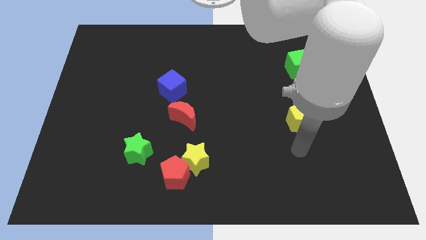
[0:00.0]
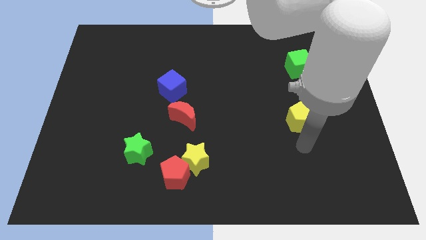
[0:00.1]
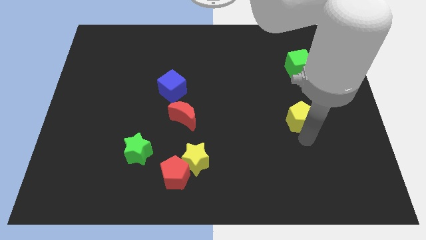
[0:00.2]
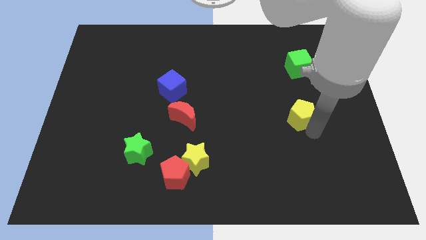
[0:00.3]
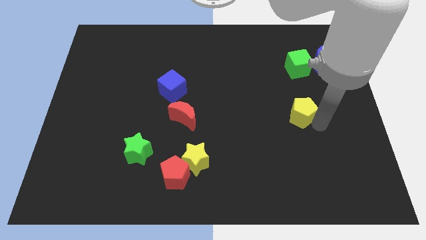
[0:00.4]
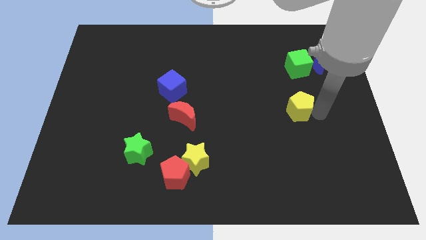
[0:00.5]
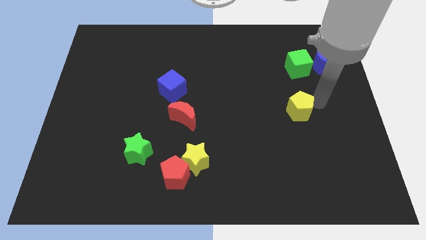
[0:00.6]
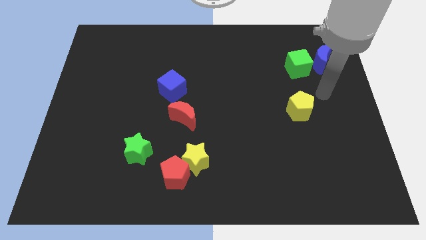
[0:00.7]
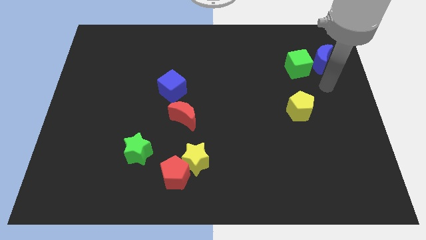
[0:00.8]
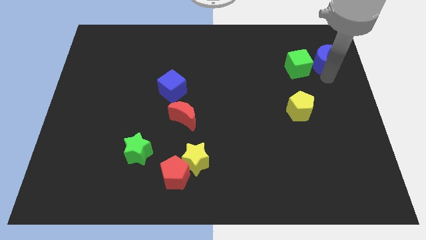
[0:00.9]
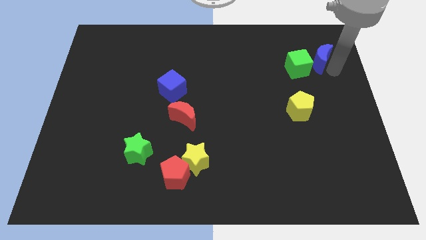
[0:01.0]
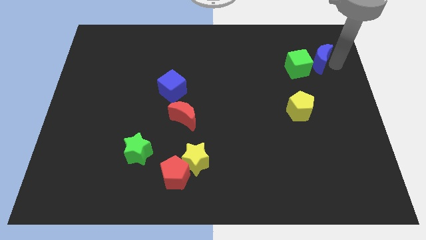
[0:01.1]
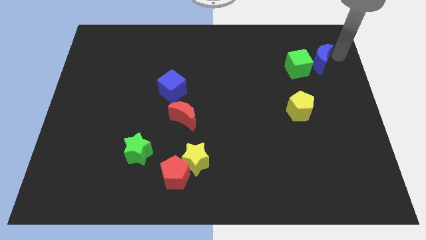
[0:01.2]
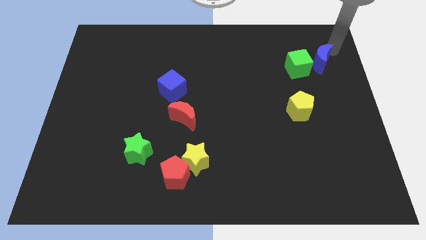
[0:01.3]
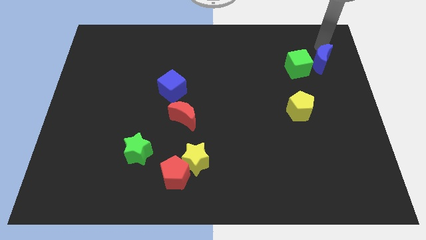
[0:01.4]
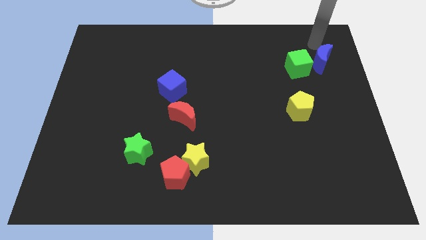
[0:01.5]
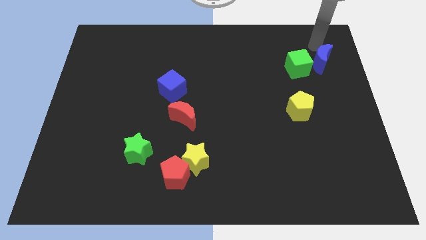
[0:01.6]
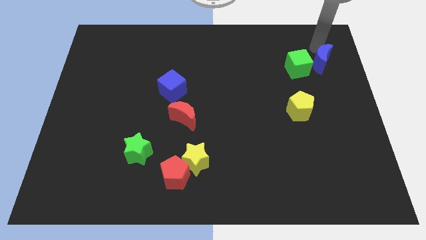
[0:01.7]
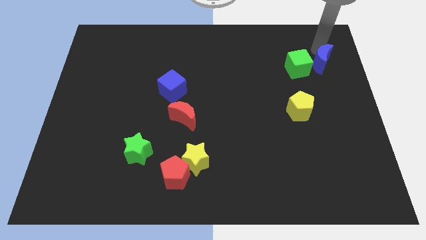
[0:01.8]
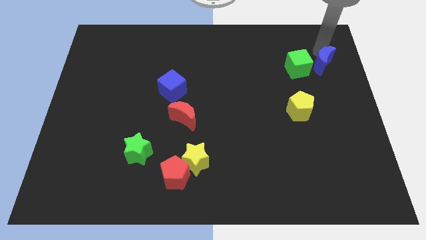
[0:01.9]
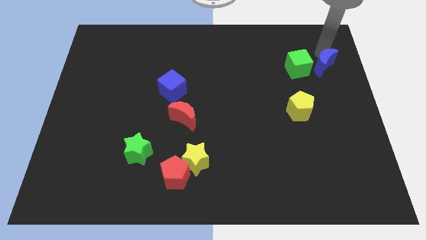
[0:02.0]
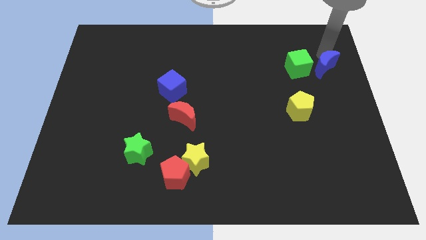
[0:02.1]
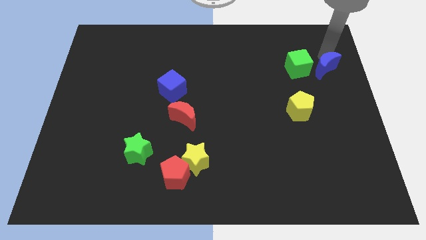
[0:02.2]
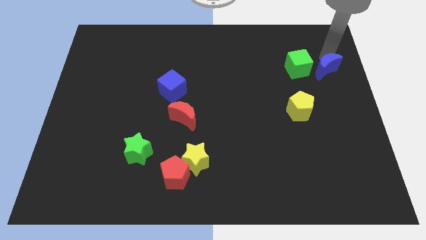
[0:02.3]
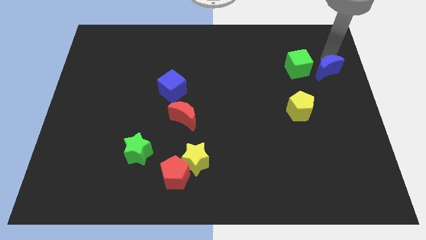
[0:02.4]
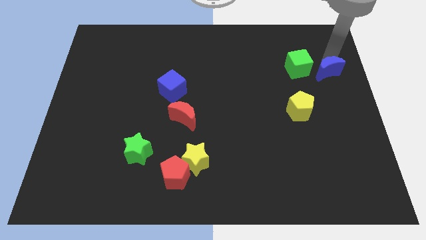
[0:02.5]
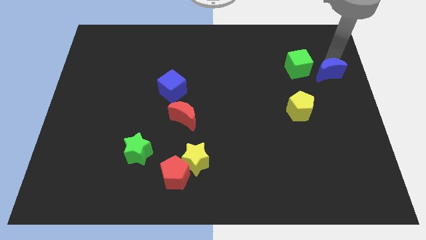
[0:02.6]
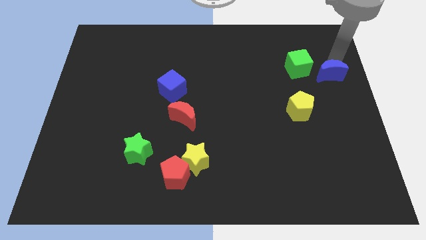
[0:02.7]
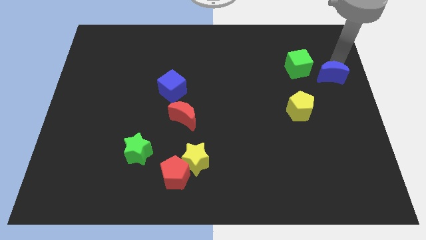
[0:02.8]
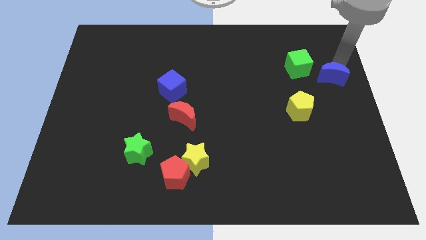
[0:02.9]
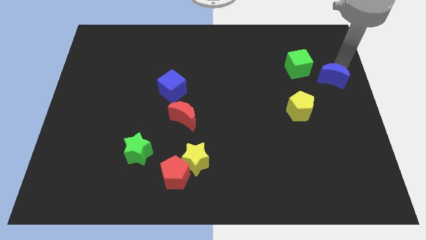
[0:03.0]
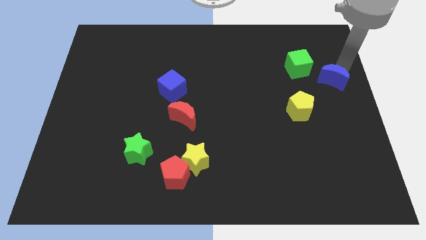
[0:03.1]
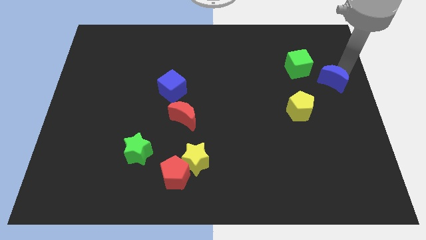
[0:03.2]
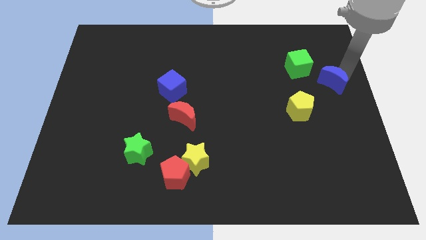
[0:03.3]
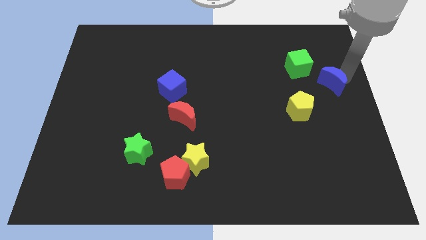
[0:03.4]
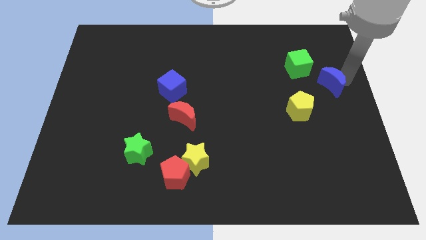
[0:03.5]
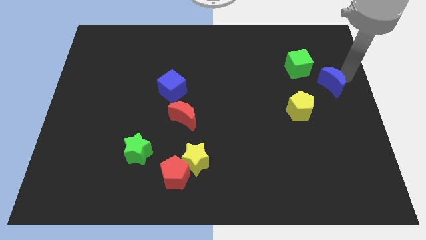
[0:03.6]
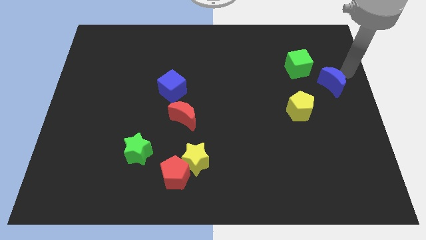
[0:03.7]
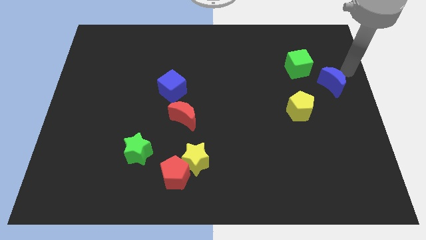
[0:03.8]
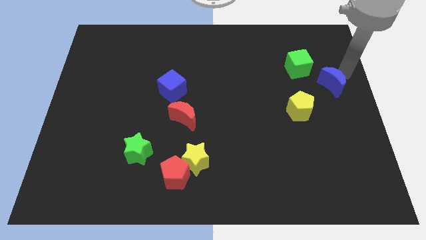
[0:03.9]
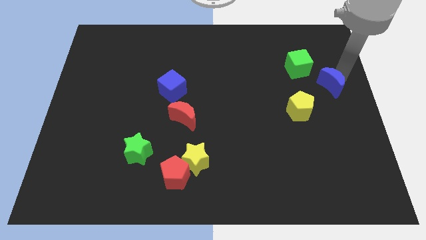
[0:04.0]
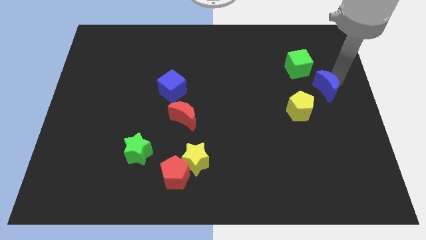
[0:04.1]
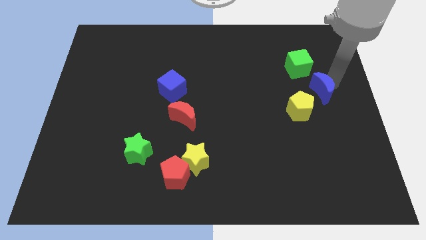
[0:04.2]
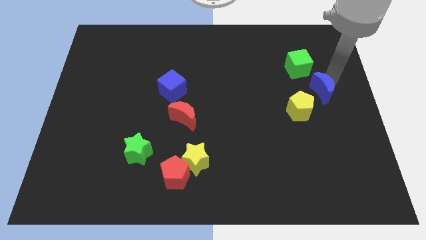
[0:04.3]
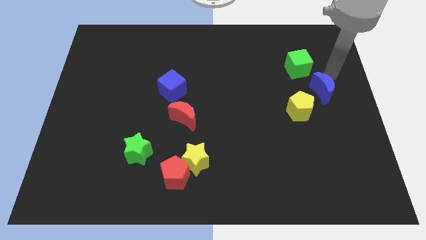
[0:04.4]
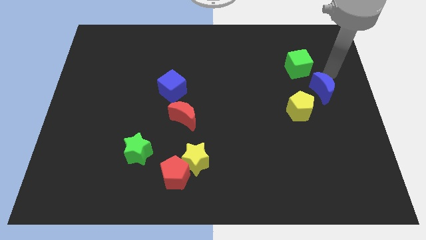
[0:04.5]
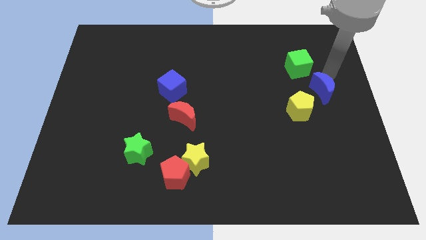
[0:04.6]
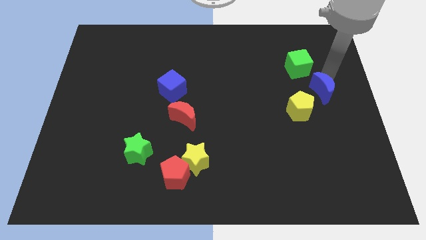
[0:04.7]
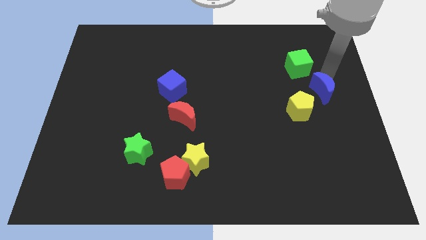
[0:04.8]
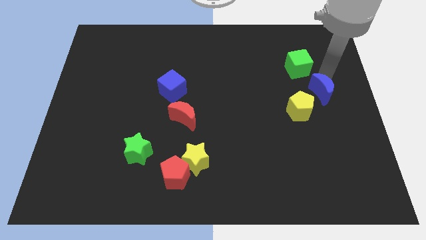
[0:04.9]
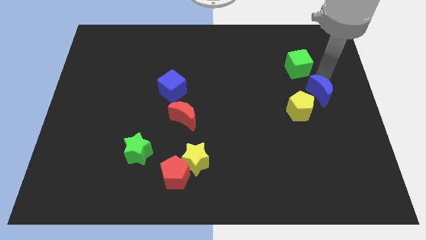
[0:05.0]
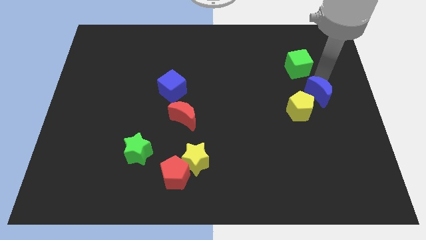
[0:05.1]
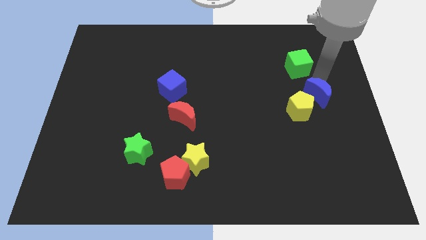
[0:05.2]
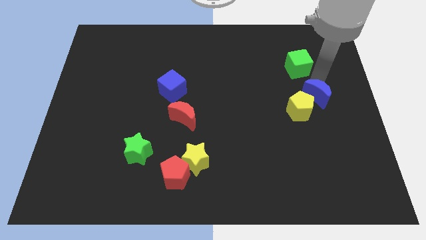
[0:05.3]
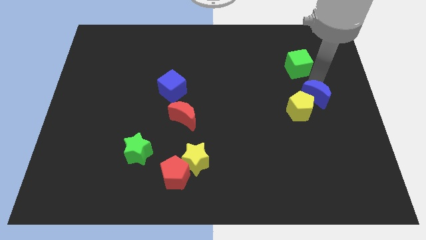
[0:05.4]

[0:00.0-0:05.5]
put the blue moon to the yellow pentagon

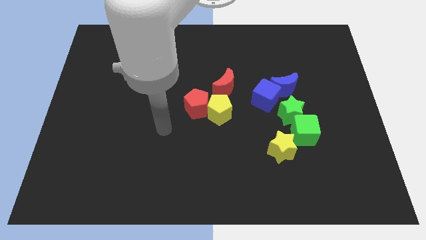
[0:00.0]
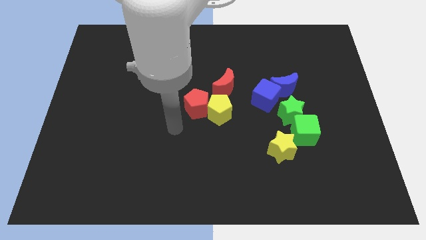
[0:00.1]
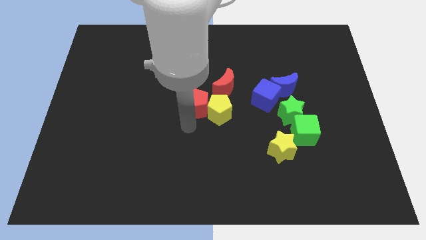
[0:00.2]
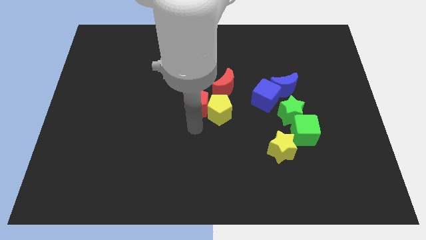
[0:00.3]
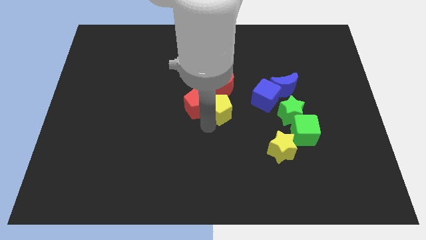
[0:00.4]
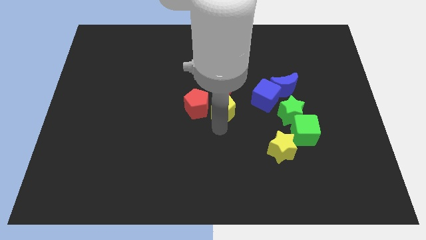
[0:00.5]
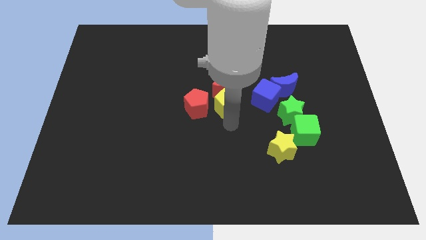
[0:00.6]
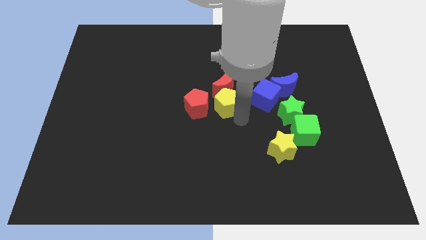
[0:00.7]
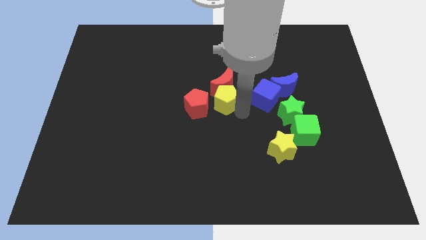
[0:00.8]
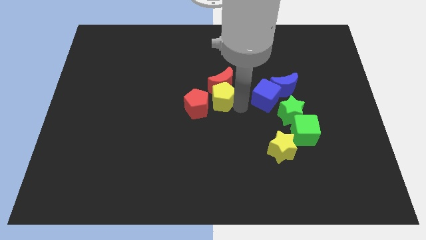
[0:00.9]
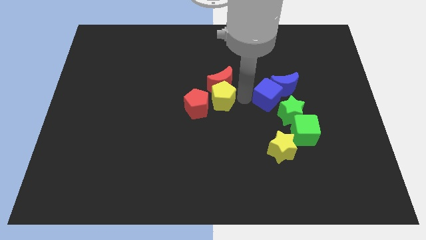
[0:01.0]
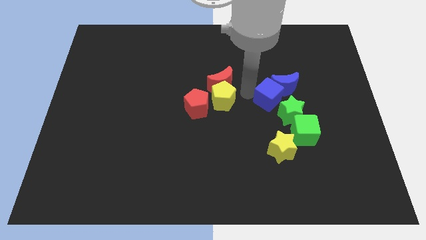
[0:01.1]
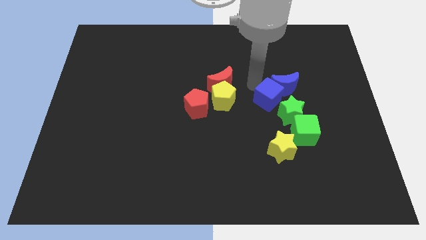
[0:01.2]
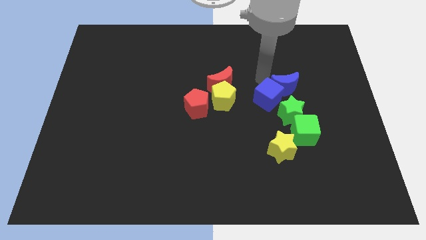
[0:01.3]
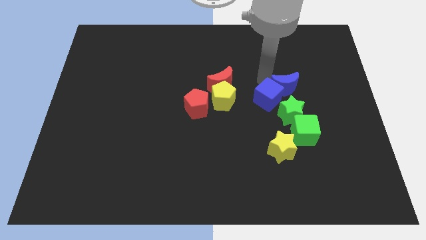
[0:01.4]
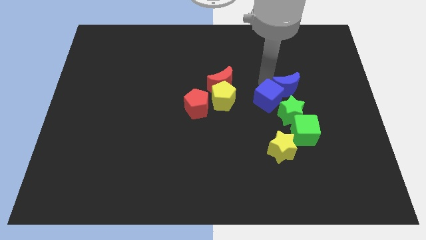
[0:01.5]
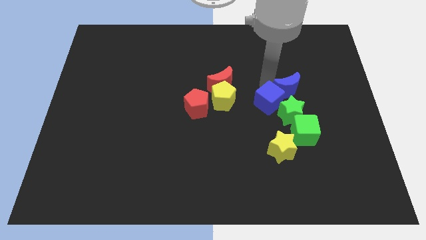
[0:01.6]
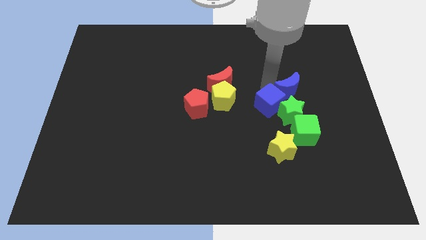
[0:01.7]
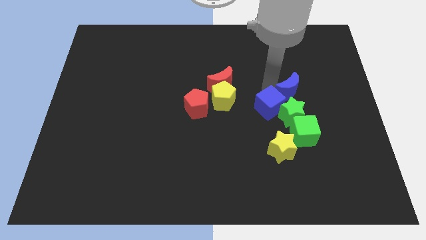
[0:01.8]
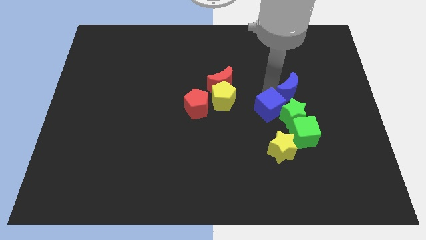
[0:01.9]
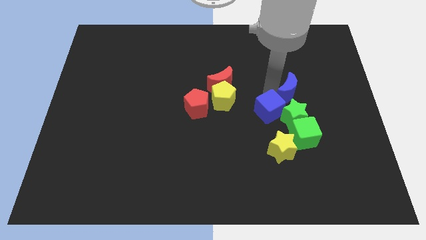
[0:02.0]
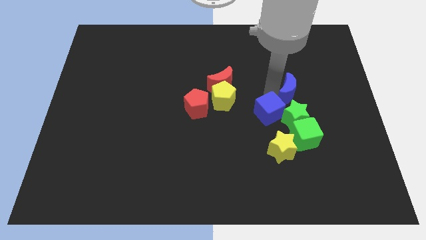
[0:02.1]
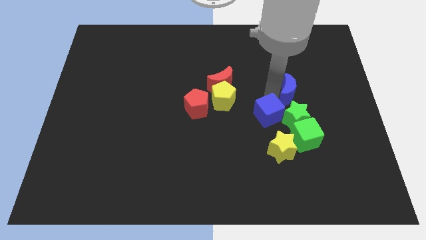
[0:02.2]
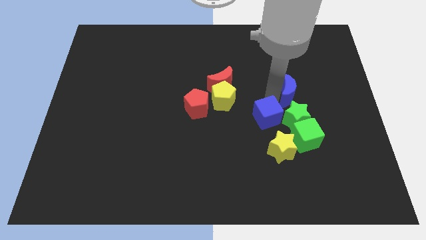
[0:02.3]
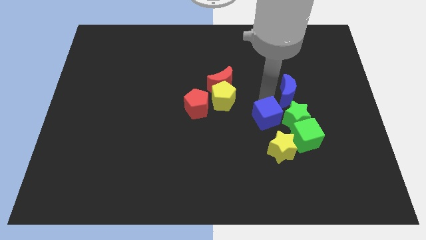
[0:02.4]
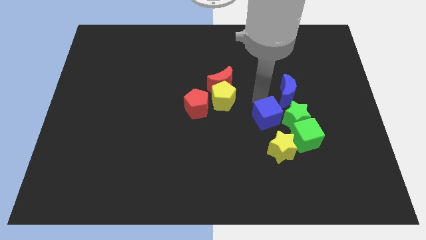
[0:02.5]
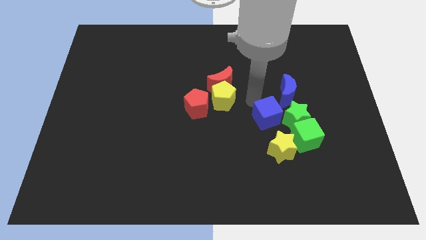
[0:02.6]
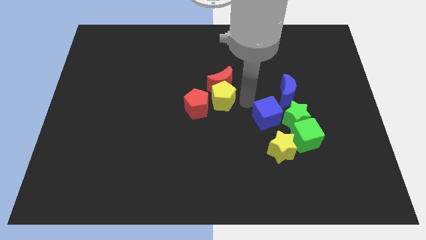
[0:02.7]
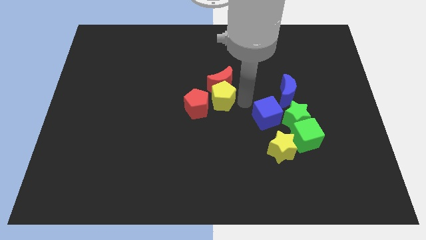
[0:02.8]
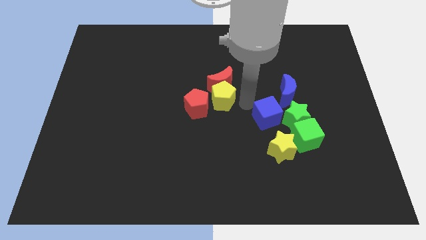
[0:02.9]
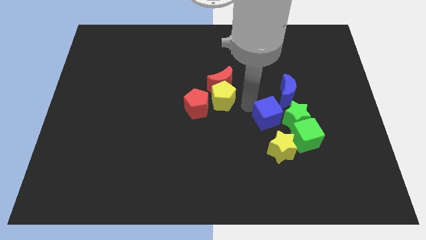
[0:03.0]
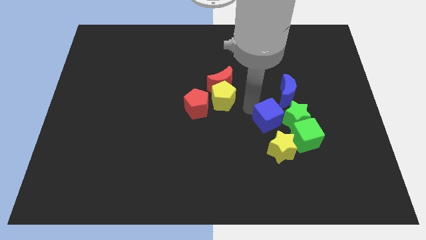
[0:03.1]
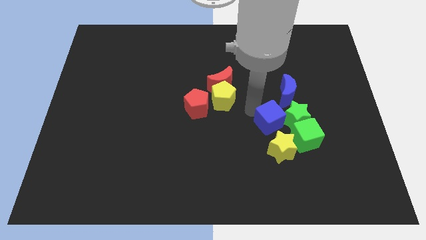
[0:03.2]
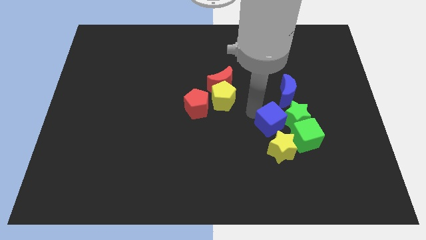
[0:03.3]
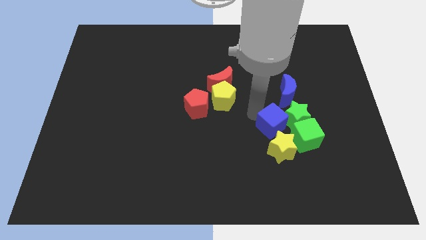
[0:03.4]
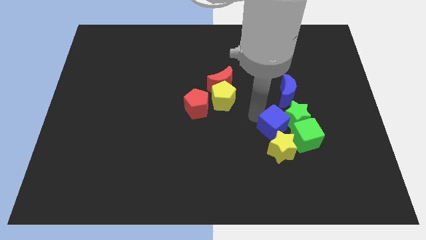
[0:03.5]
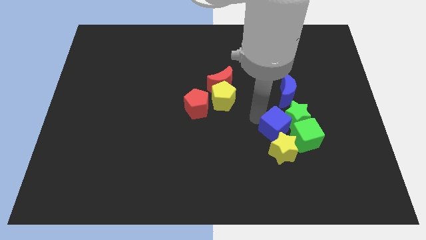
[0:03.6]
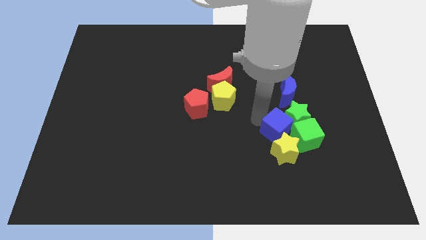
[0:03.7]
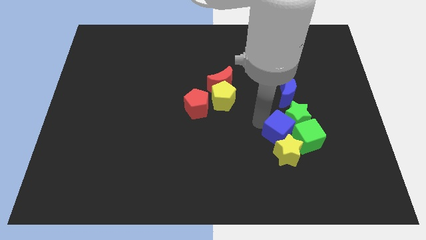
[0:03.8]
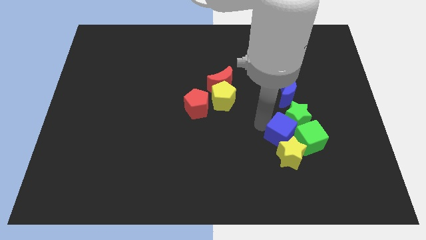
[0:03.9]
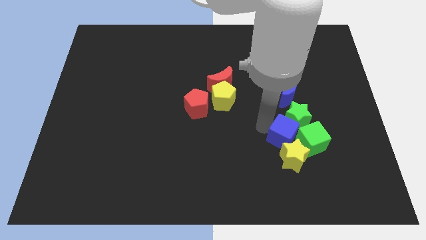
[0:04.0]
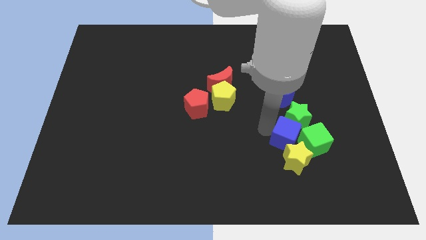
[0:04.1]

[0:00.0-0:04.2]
put the blue cube to the green cube
